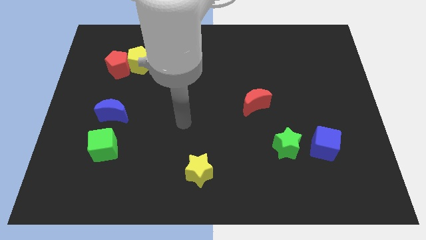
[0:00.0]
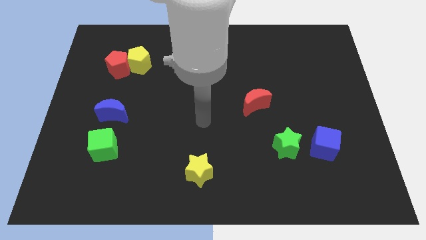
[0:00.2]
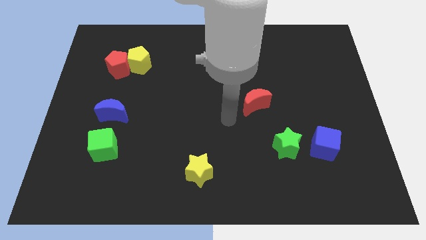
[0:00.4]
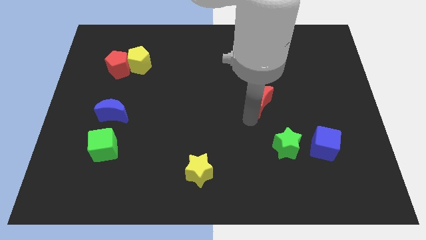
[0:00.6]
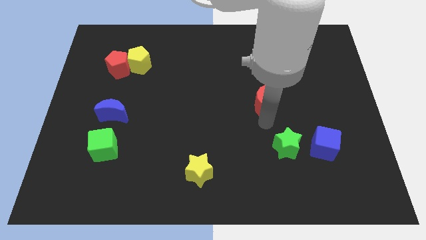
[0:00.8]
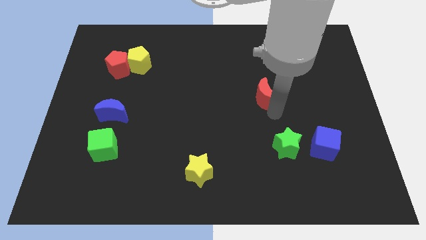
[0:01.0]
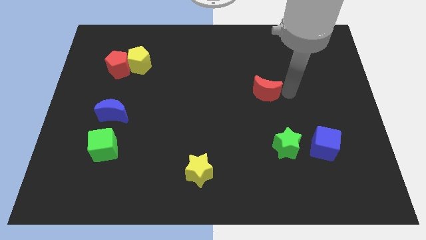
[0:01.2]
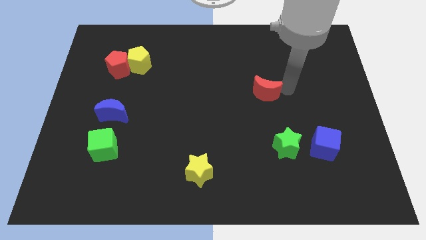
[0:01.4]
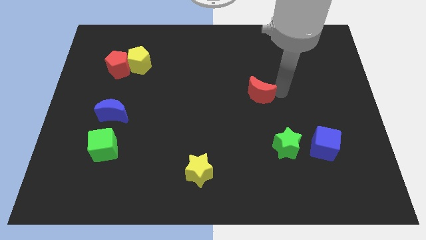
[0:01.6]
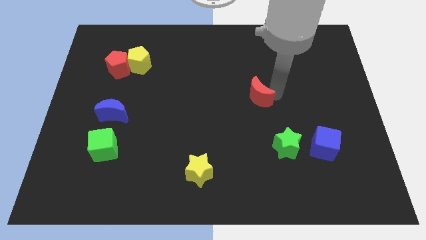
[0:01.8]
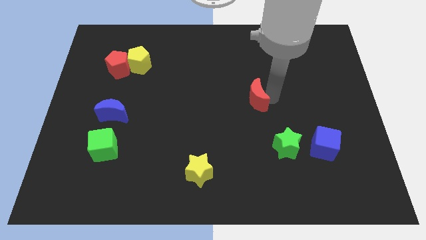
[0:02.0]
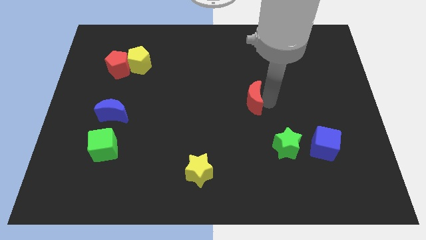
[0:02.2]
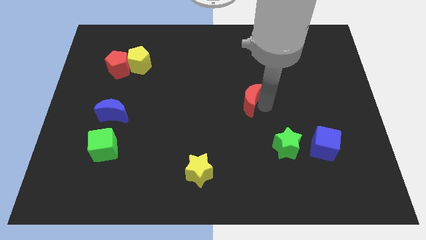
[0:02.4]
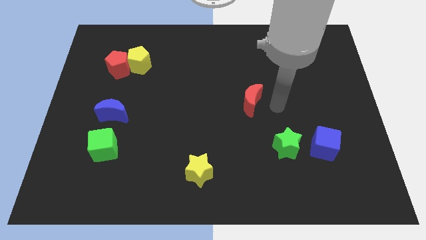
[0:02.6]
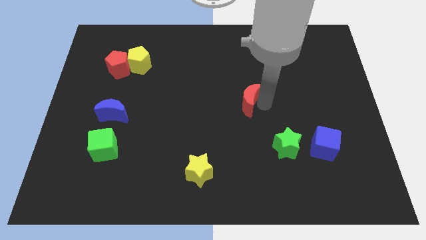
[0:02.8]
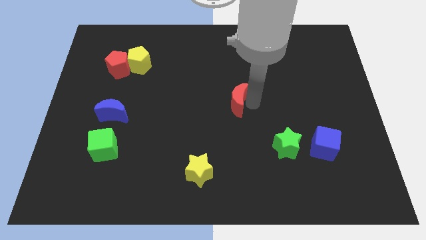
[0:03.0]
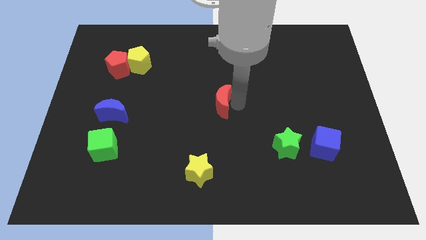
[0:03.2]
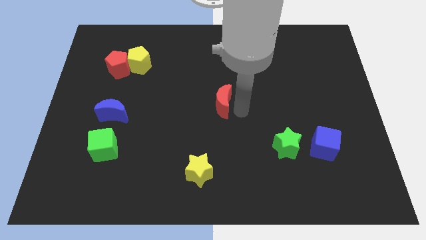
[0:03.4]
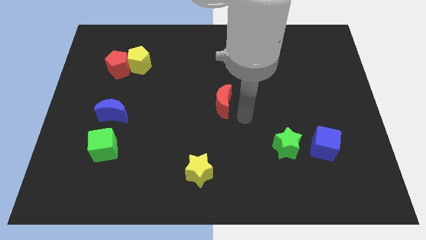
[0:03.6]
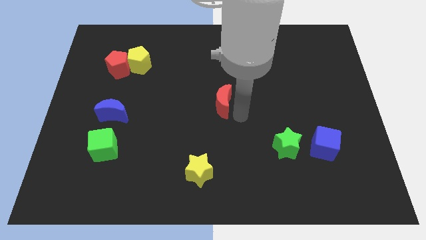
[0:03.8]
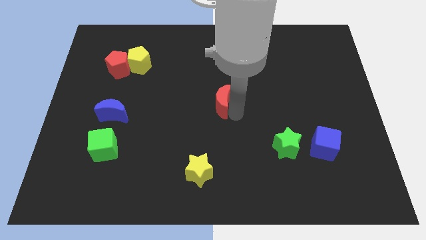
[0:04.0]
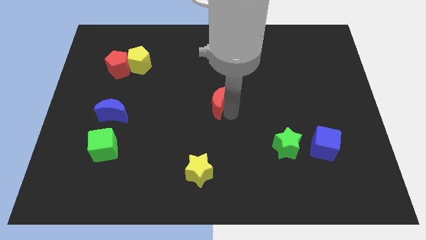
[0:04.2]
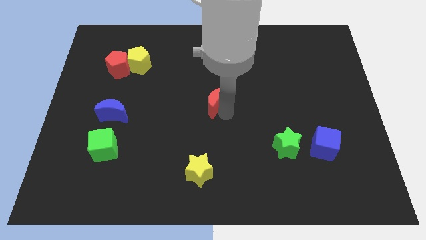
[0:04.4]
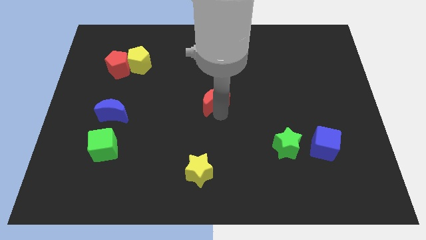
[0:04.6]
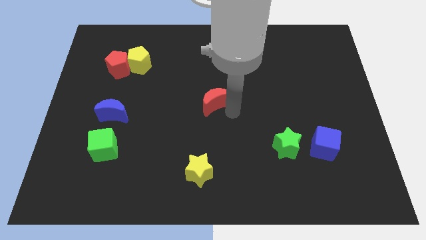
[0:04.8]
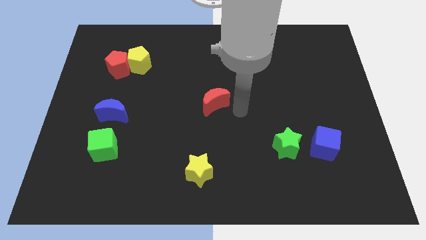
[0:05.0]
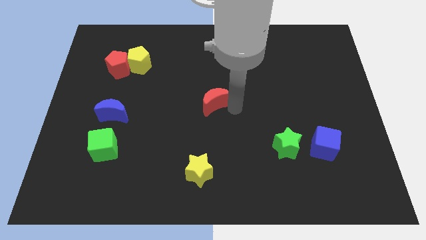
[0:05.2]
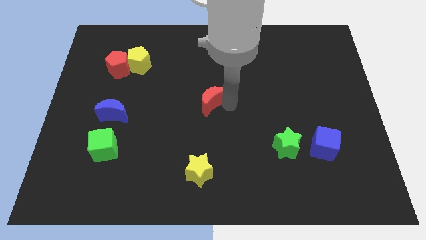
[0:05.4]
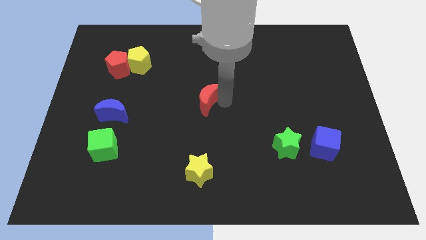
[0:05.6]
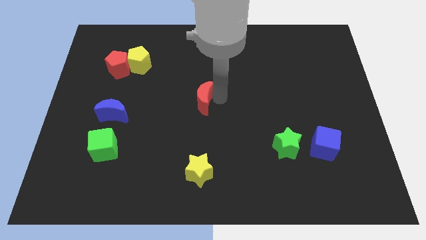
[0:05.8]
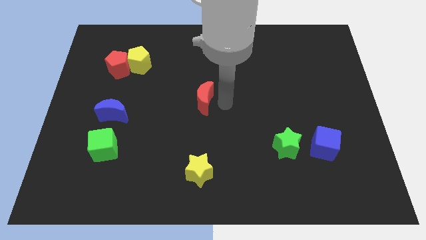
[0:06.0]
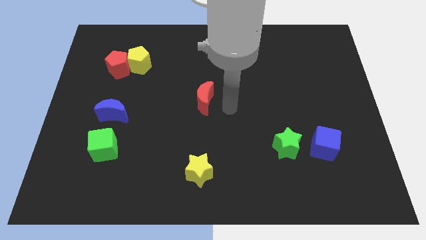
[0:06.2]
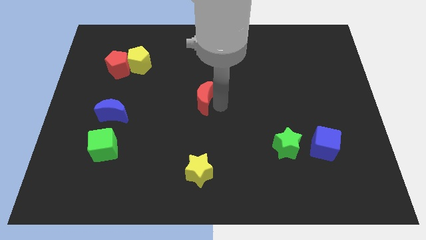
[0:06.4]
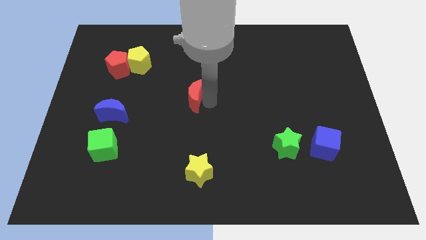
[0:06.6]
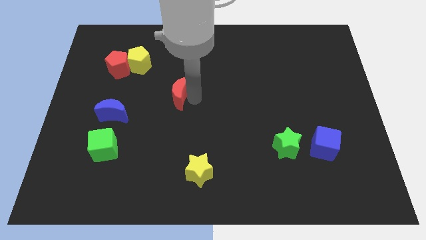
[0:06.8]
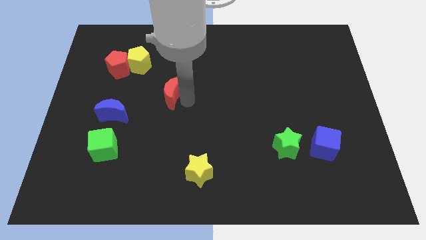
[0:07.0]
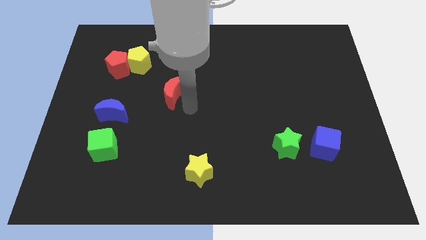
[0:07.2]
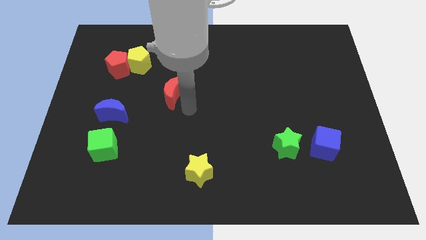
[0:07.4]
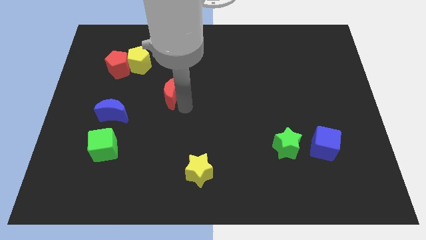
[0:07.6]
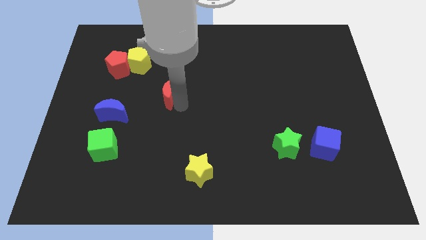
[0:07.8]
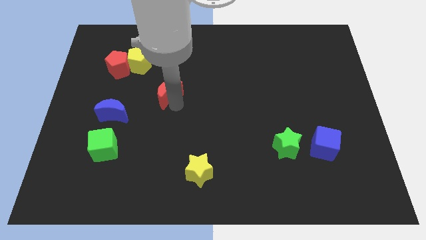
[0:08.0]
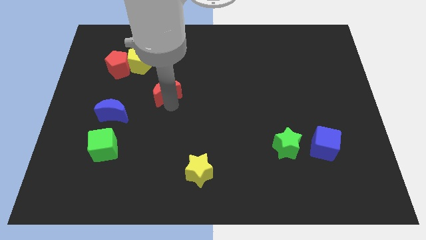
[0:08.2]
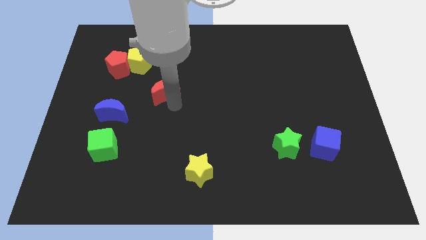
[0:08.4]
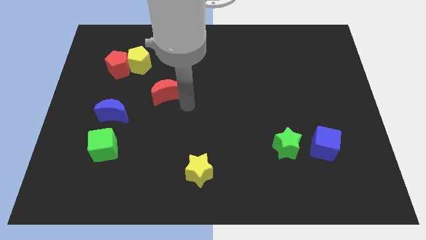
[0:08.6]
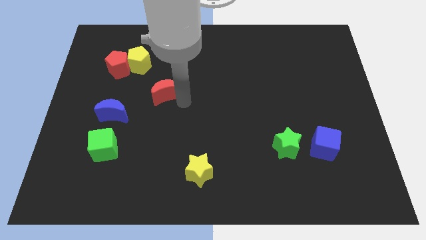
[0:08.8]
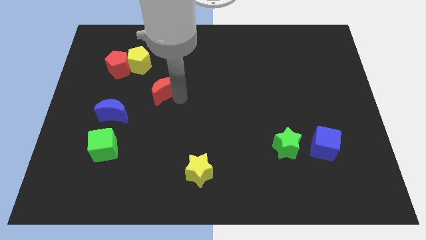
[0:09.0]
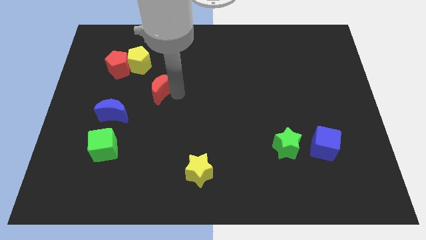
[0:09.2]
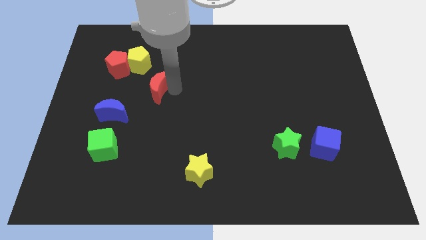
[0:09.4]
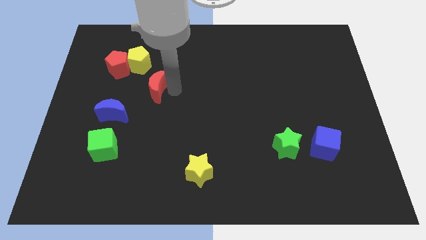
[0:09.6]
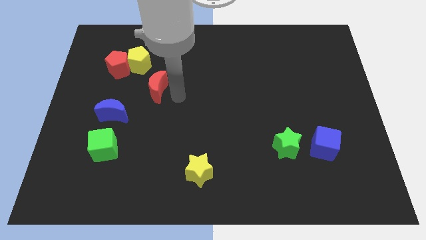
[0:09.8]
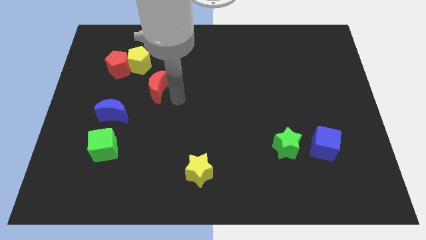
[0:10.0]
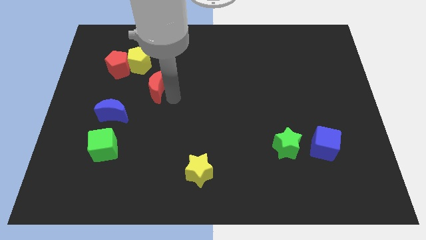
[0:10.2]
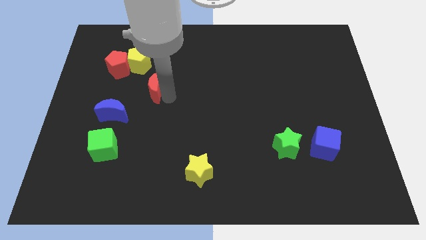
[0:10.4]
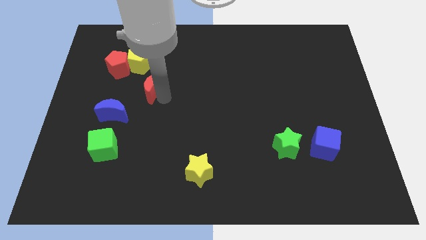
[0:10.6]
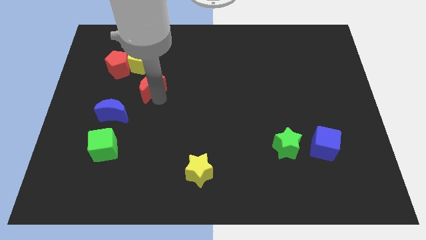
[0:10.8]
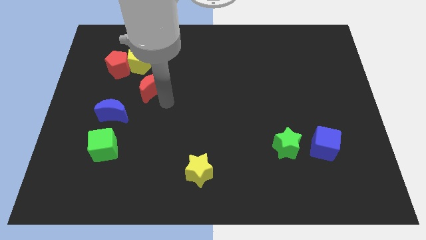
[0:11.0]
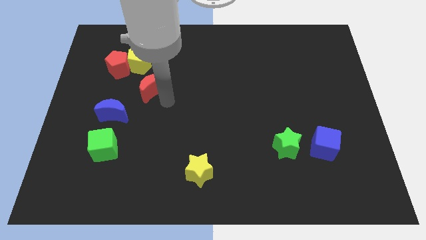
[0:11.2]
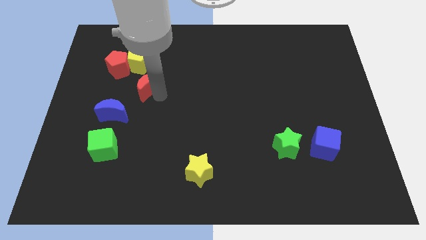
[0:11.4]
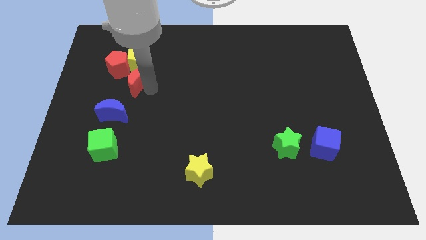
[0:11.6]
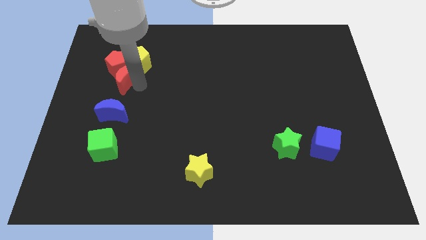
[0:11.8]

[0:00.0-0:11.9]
put the red moon towards the red pentagon

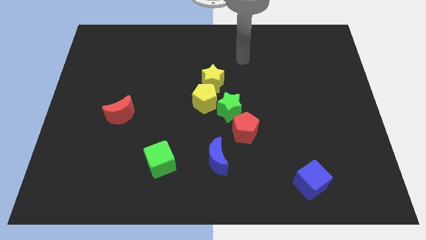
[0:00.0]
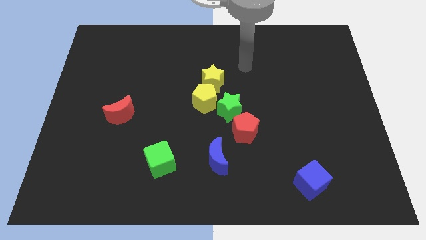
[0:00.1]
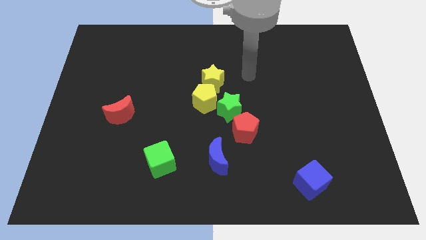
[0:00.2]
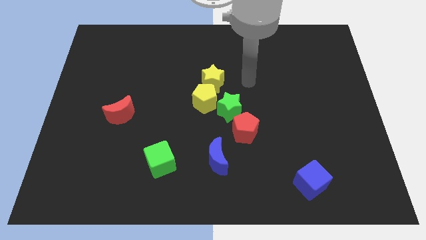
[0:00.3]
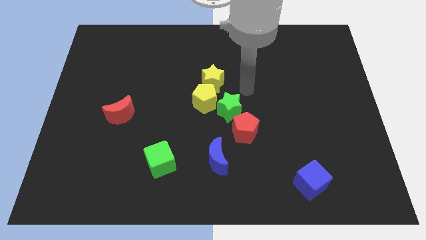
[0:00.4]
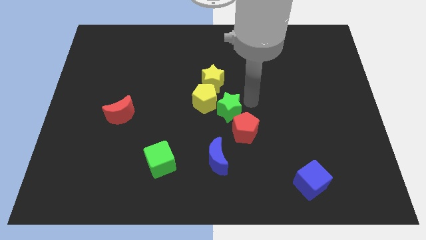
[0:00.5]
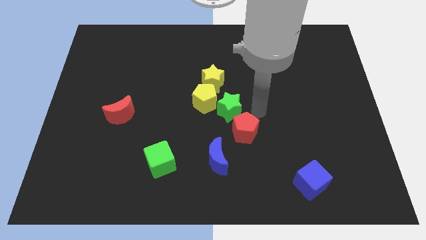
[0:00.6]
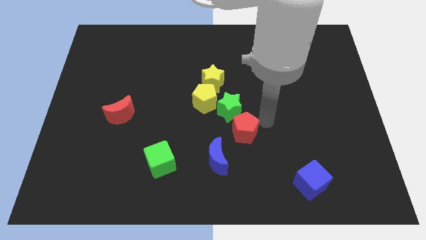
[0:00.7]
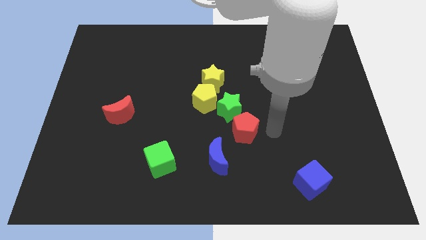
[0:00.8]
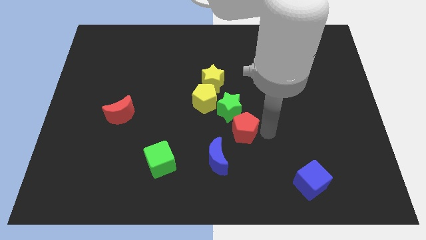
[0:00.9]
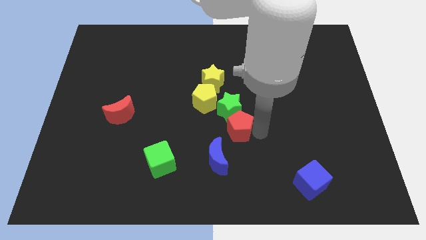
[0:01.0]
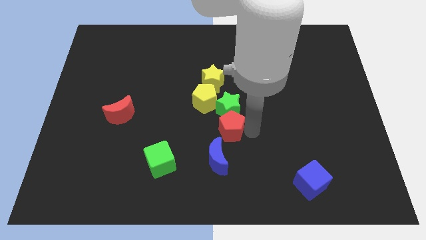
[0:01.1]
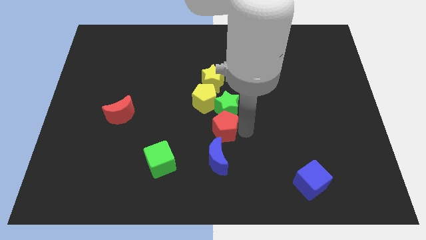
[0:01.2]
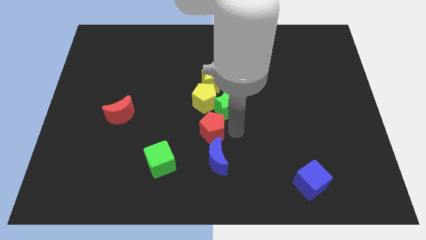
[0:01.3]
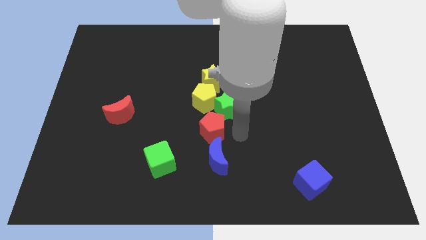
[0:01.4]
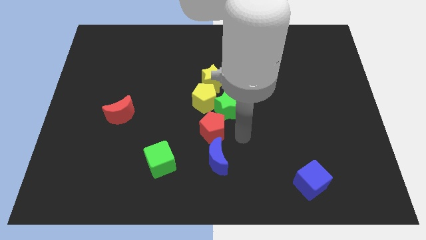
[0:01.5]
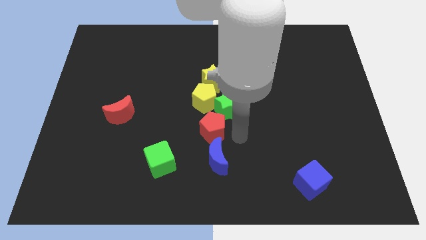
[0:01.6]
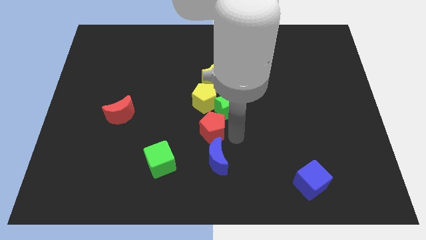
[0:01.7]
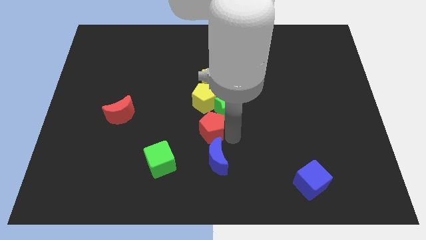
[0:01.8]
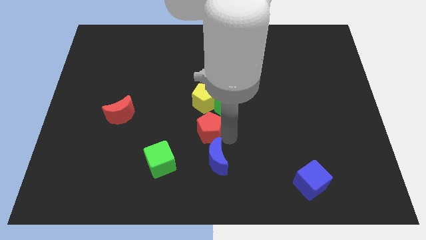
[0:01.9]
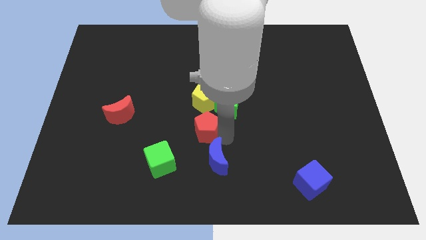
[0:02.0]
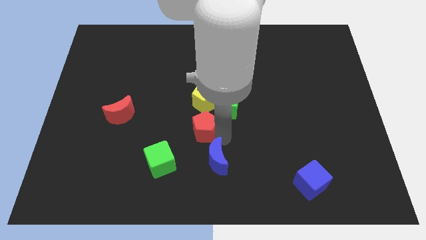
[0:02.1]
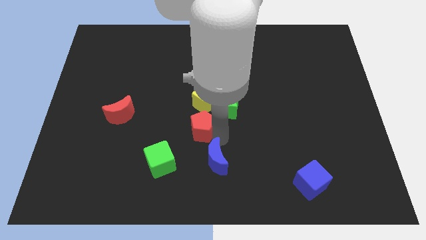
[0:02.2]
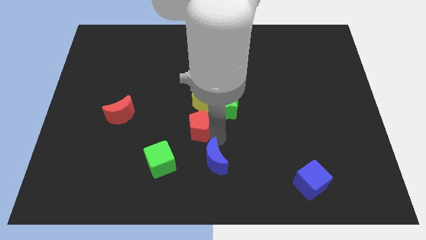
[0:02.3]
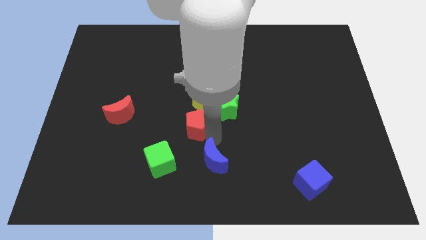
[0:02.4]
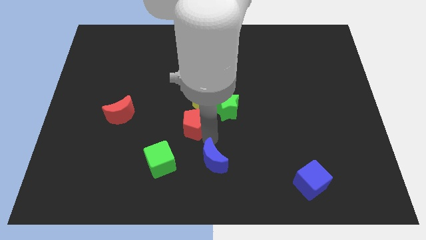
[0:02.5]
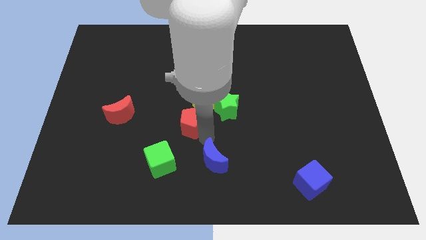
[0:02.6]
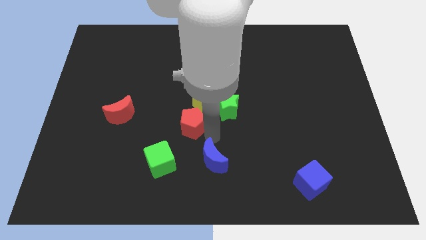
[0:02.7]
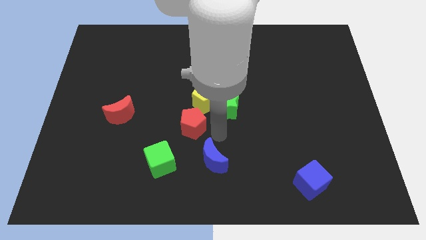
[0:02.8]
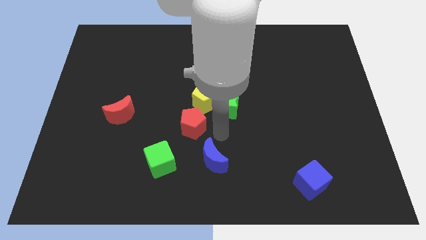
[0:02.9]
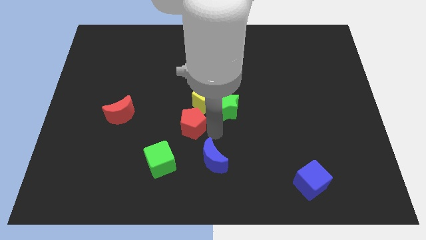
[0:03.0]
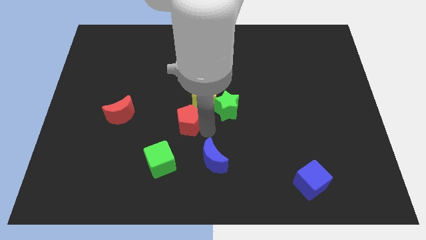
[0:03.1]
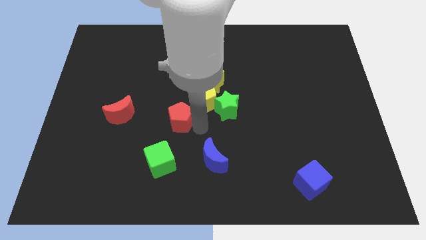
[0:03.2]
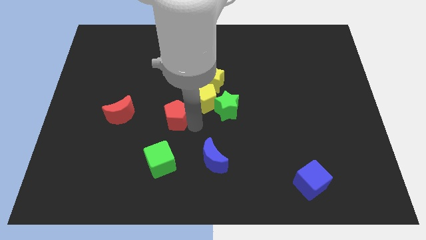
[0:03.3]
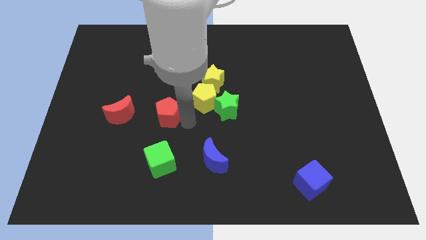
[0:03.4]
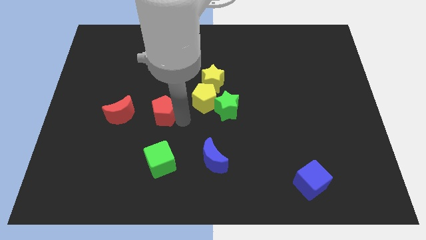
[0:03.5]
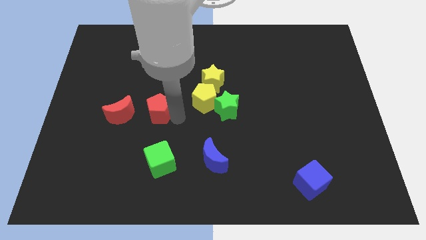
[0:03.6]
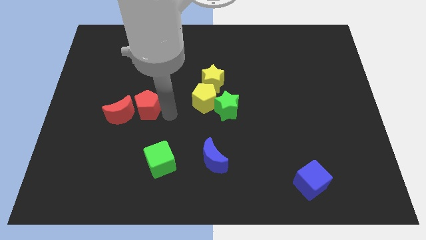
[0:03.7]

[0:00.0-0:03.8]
push the red pentagon towards the red moon
